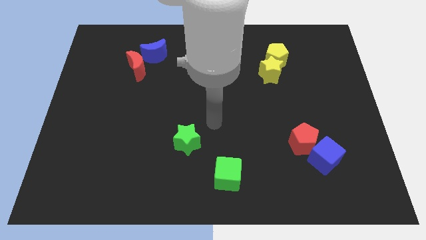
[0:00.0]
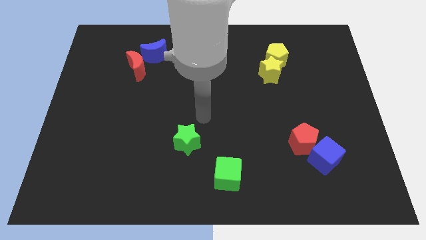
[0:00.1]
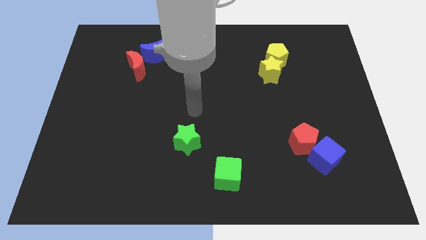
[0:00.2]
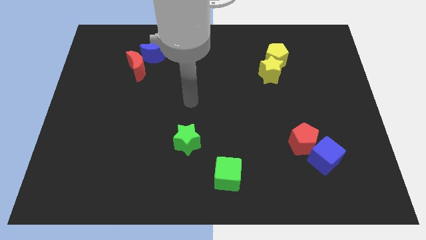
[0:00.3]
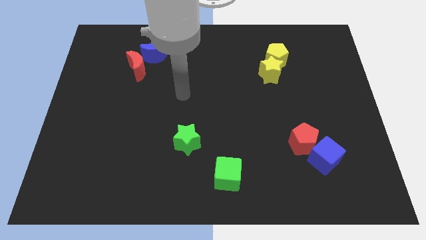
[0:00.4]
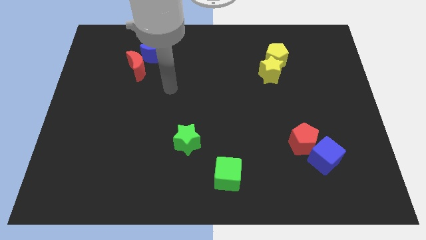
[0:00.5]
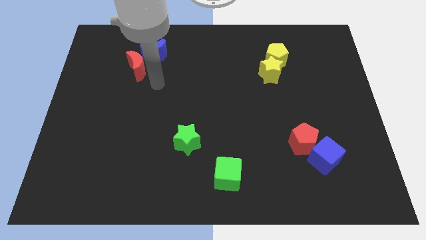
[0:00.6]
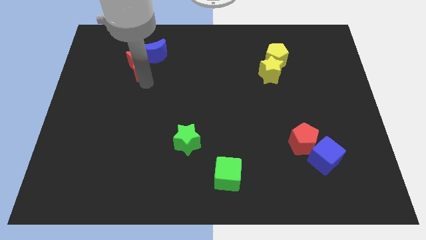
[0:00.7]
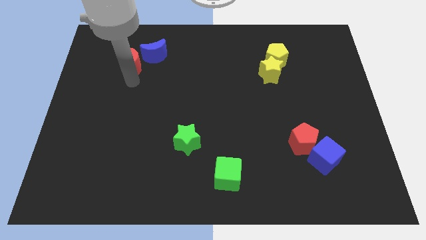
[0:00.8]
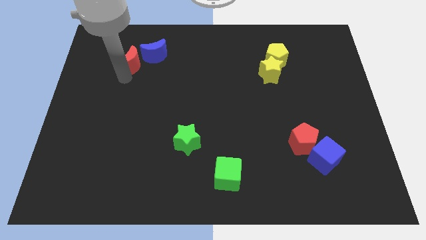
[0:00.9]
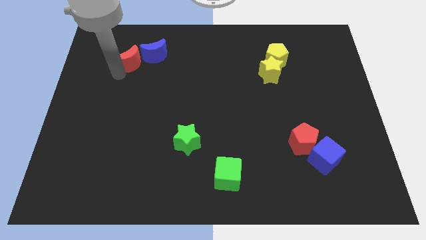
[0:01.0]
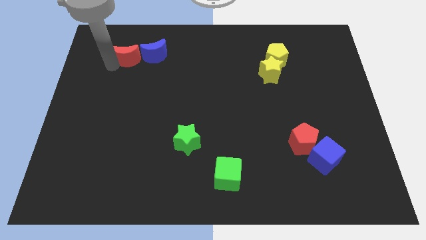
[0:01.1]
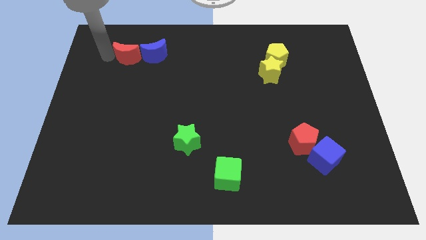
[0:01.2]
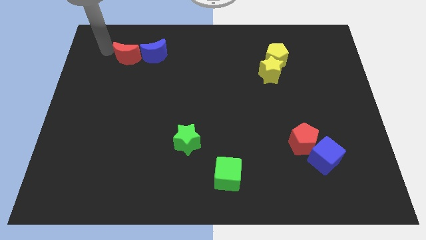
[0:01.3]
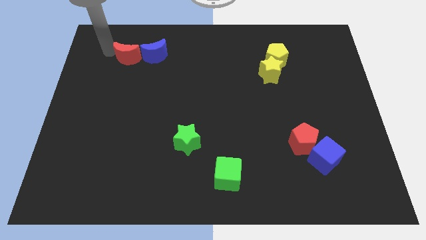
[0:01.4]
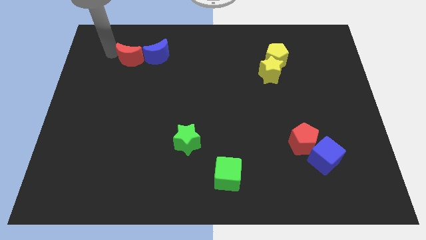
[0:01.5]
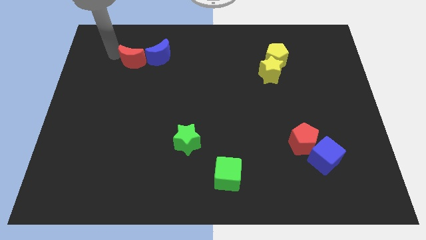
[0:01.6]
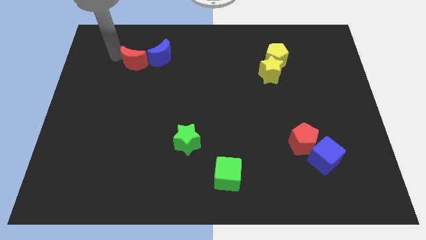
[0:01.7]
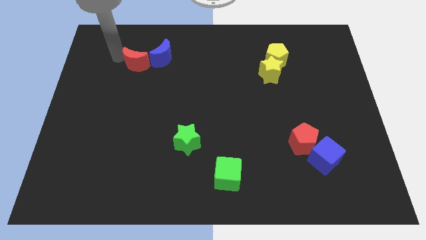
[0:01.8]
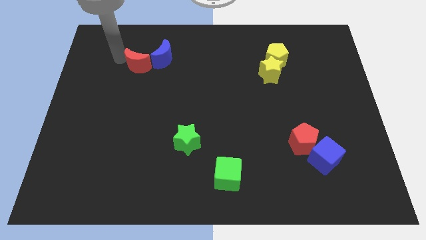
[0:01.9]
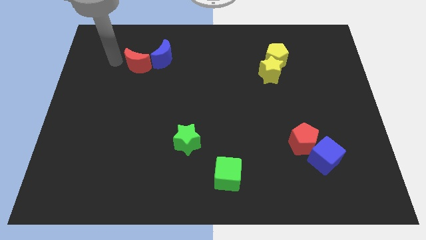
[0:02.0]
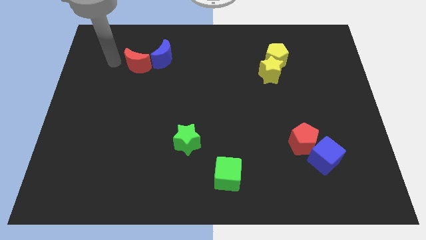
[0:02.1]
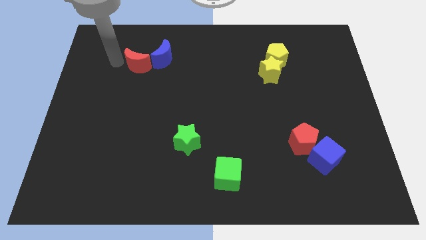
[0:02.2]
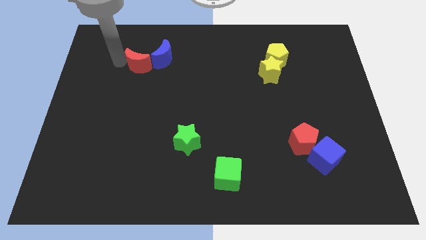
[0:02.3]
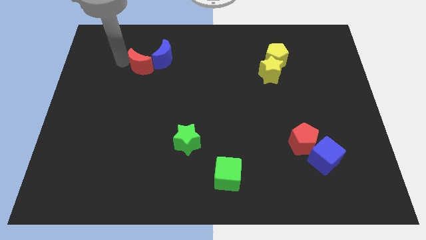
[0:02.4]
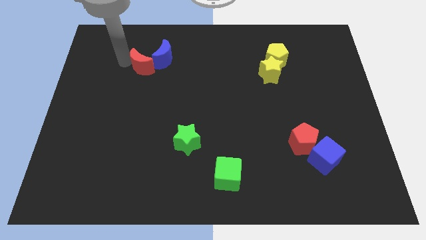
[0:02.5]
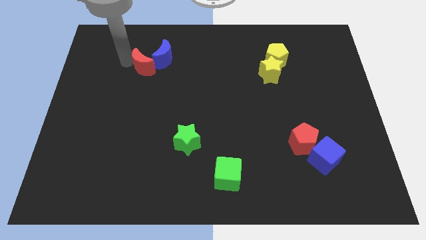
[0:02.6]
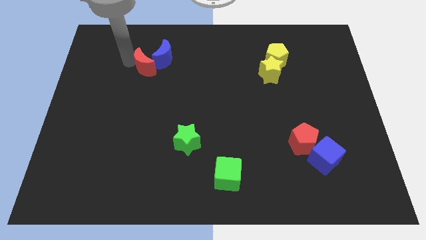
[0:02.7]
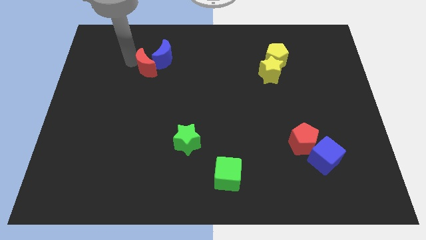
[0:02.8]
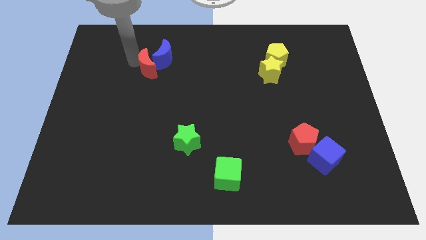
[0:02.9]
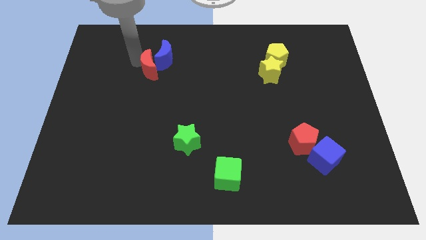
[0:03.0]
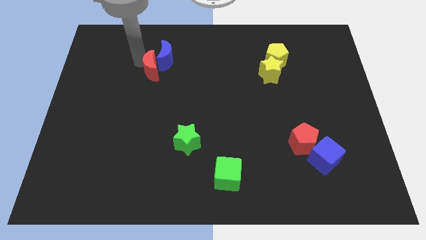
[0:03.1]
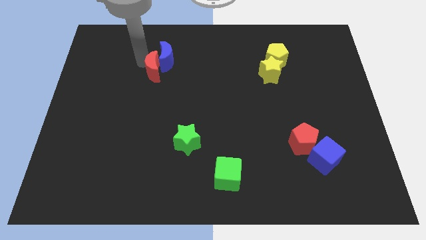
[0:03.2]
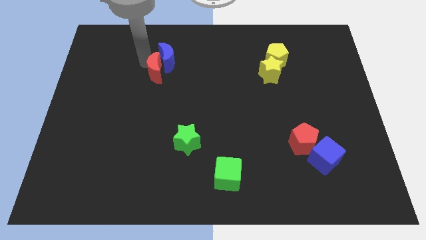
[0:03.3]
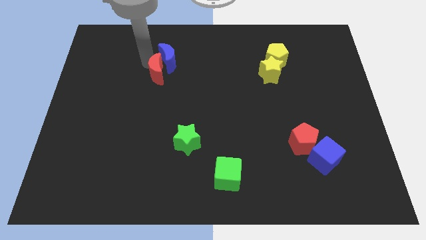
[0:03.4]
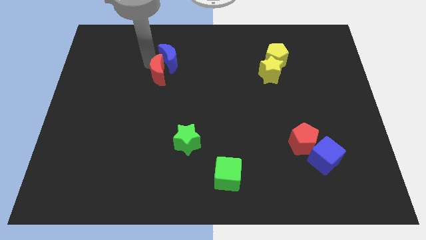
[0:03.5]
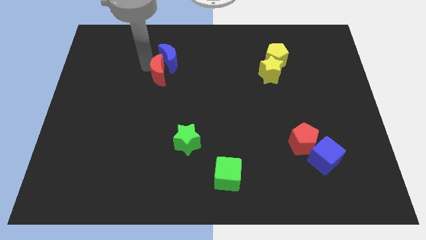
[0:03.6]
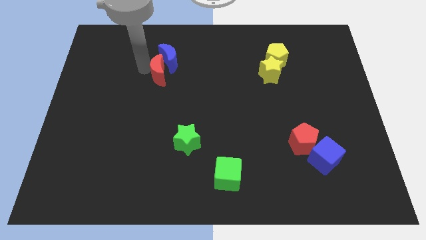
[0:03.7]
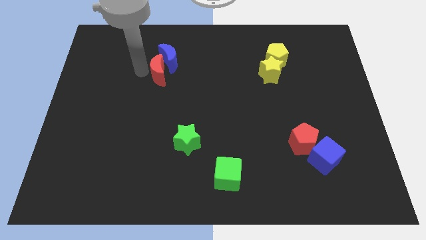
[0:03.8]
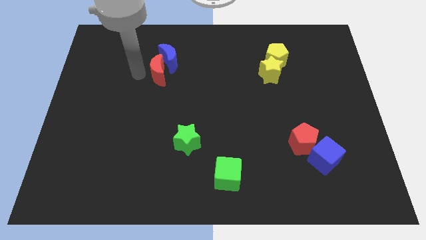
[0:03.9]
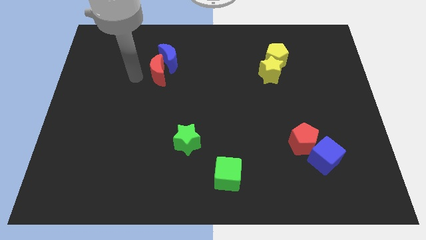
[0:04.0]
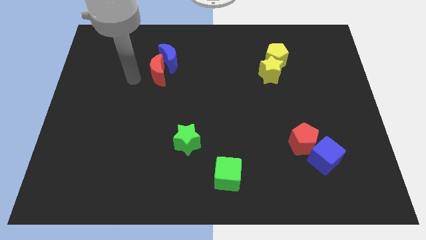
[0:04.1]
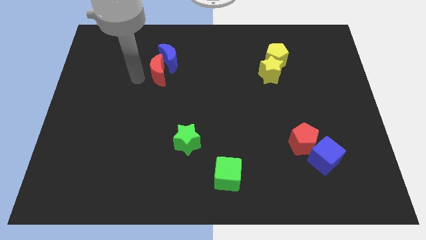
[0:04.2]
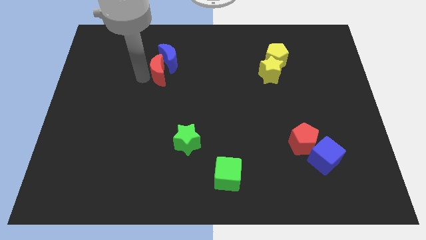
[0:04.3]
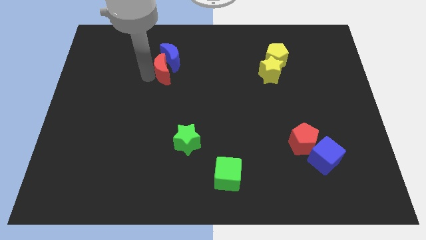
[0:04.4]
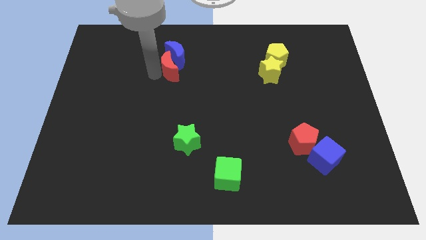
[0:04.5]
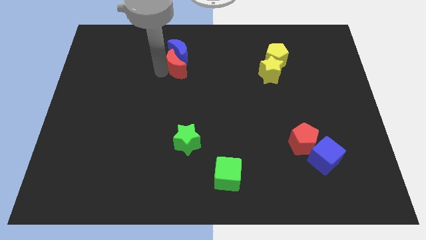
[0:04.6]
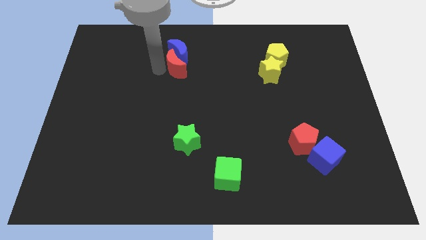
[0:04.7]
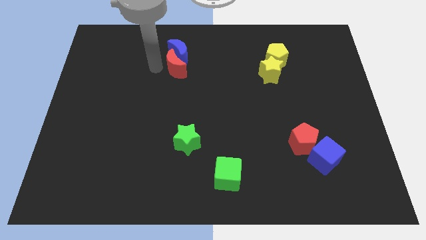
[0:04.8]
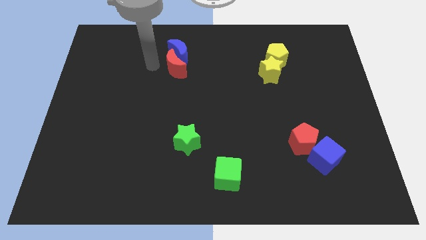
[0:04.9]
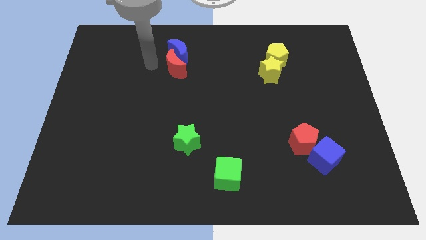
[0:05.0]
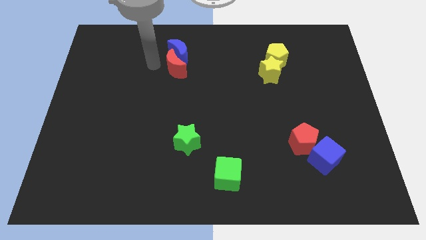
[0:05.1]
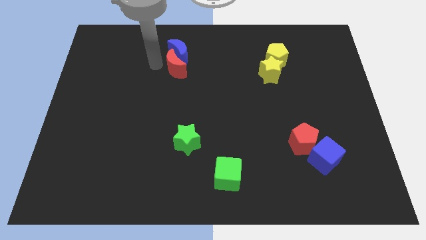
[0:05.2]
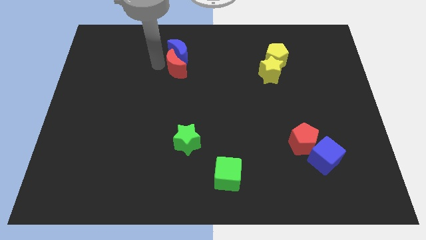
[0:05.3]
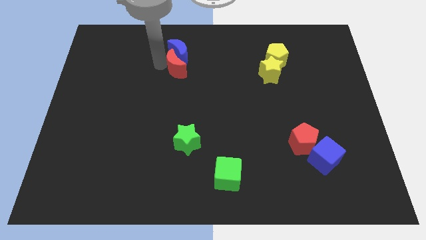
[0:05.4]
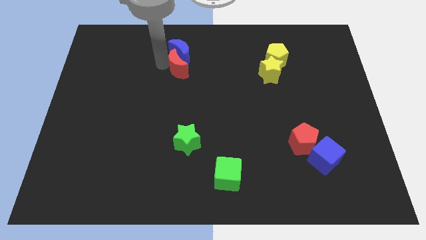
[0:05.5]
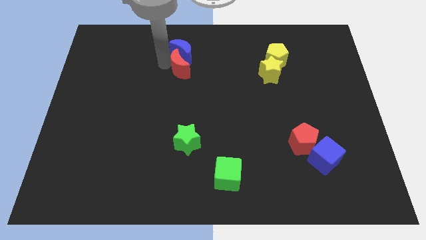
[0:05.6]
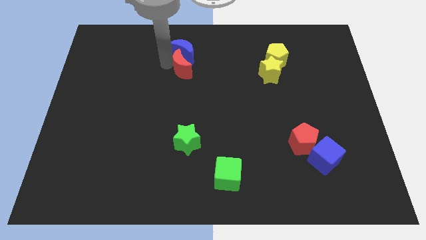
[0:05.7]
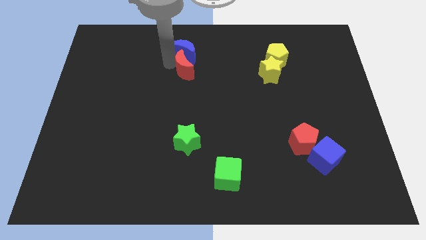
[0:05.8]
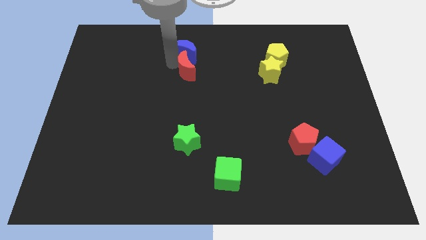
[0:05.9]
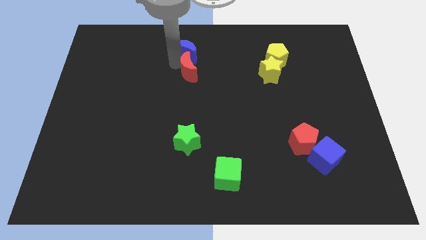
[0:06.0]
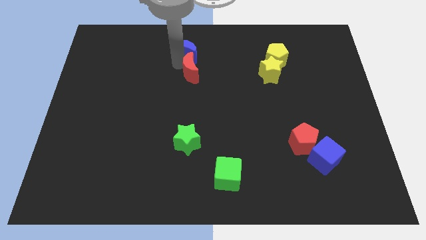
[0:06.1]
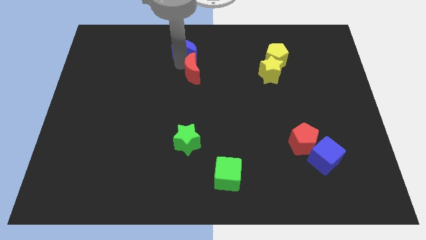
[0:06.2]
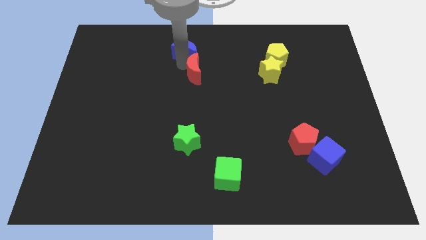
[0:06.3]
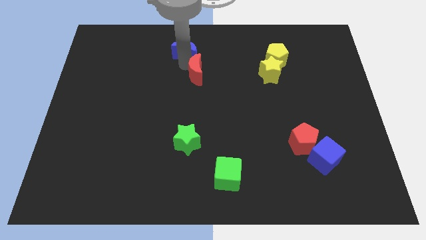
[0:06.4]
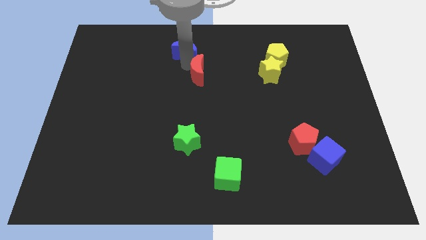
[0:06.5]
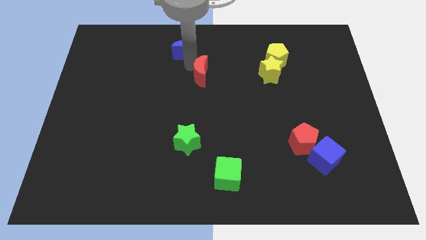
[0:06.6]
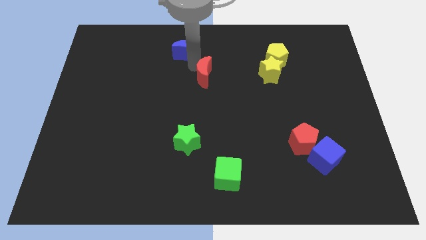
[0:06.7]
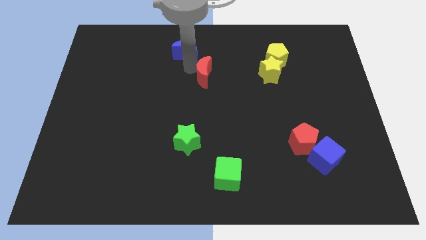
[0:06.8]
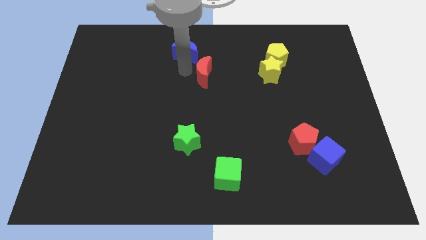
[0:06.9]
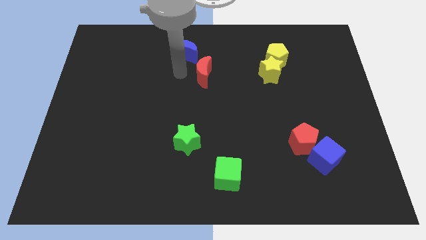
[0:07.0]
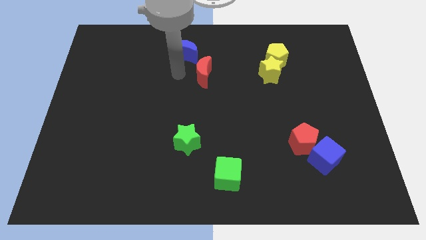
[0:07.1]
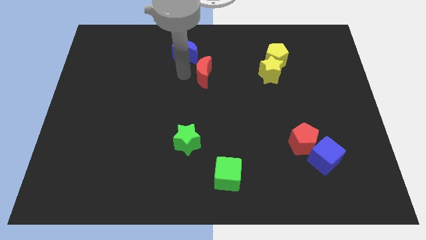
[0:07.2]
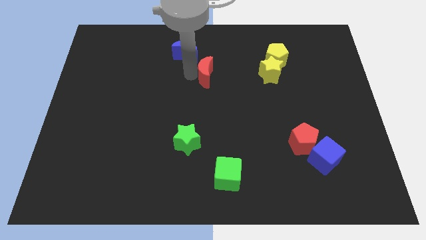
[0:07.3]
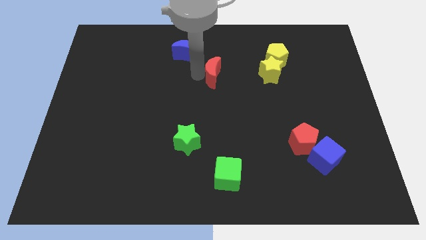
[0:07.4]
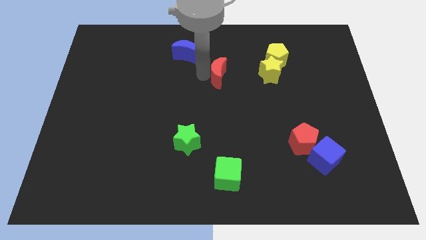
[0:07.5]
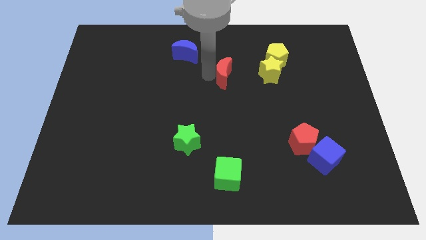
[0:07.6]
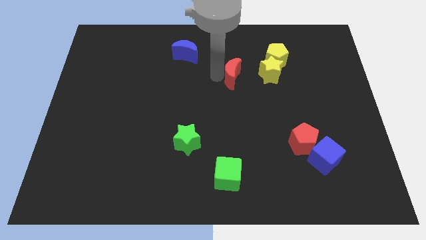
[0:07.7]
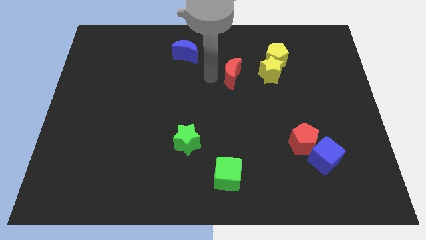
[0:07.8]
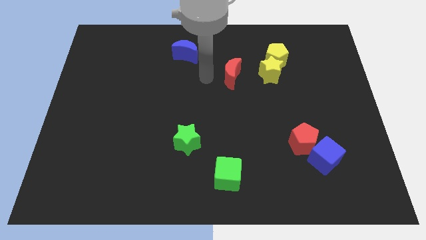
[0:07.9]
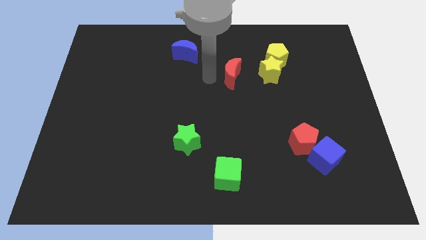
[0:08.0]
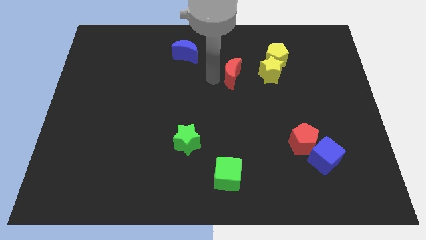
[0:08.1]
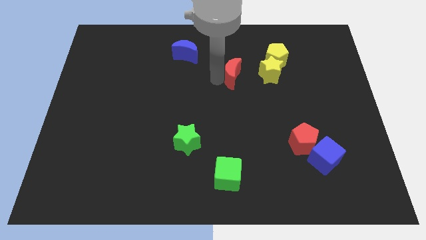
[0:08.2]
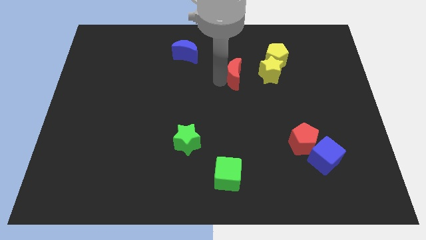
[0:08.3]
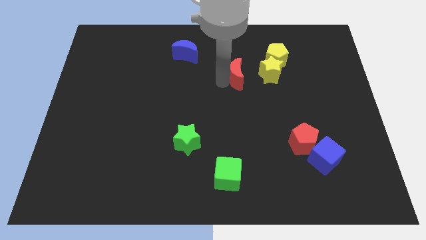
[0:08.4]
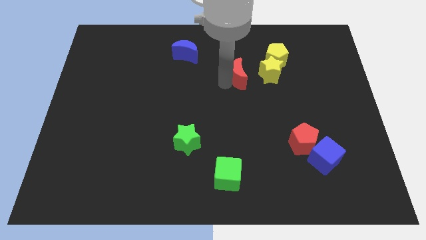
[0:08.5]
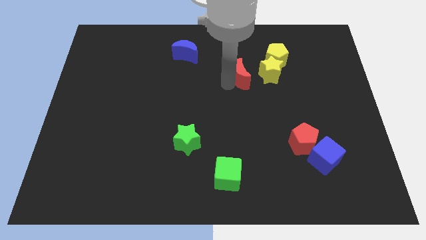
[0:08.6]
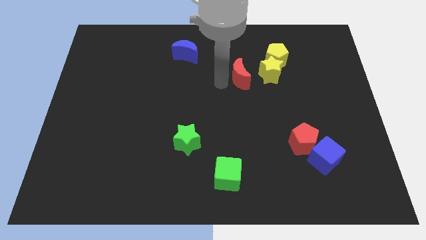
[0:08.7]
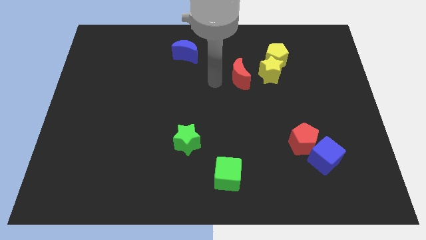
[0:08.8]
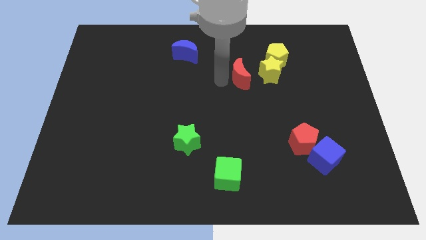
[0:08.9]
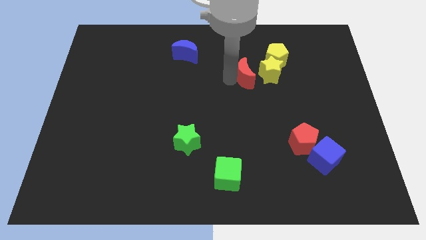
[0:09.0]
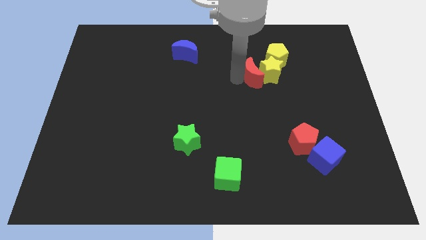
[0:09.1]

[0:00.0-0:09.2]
push the red moon close to the yellow star
